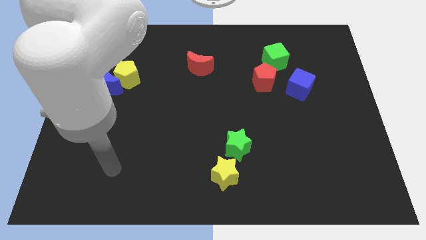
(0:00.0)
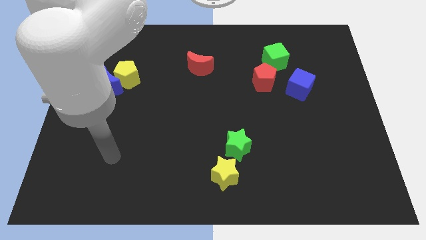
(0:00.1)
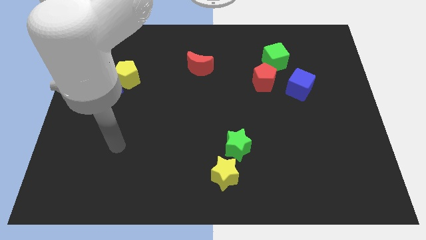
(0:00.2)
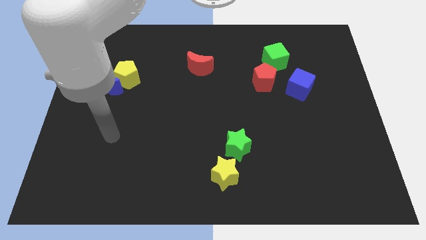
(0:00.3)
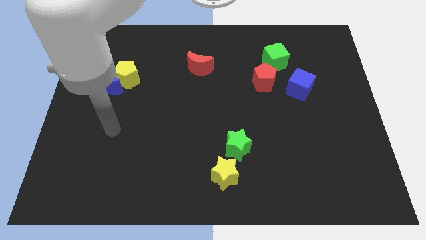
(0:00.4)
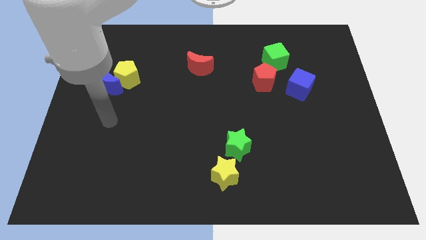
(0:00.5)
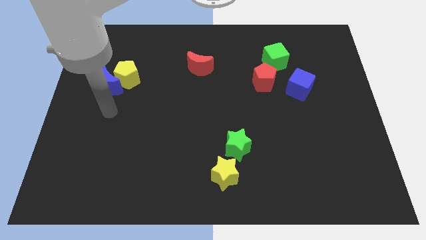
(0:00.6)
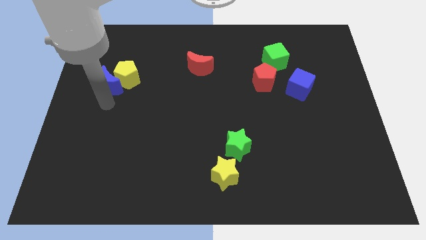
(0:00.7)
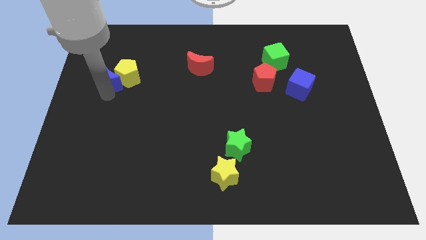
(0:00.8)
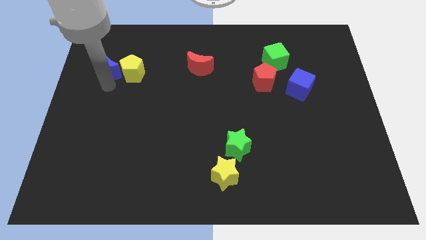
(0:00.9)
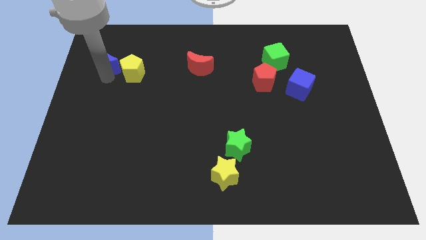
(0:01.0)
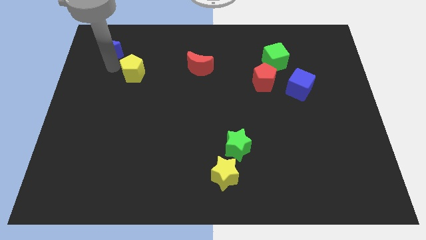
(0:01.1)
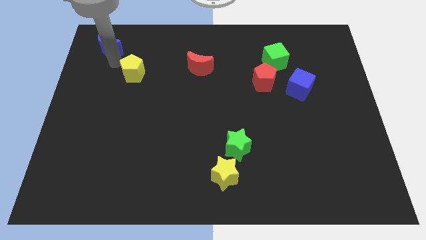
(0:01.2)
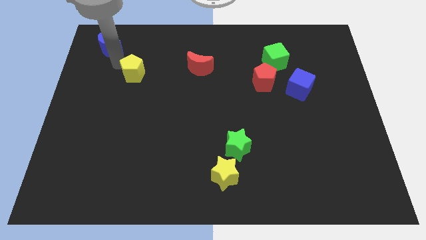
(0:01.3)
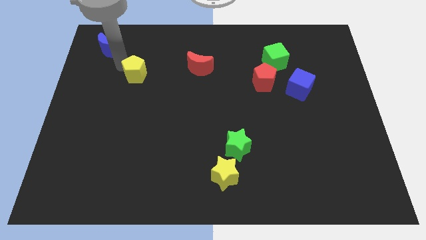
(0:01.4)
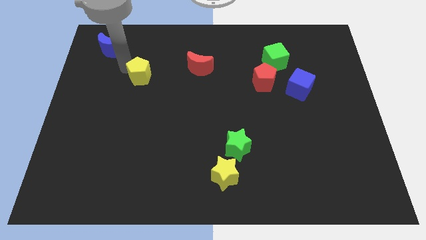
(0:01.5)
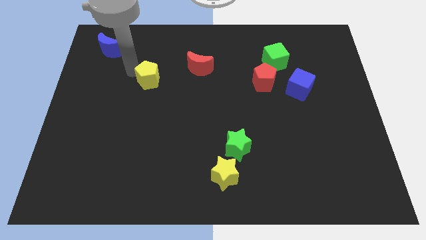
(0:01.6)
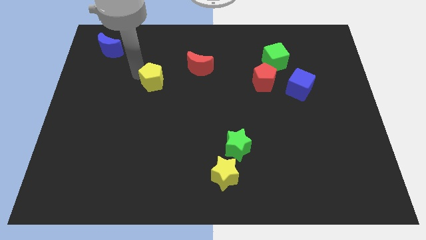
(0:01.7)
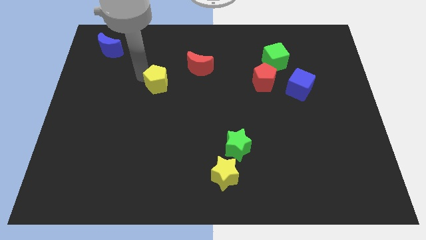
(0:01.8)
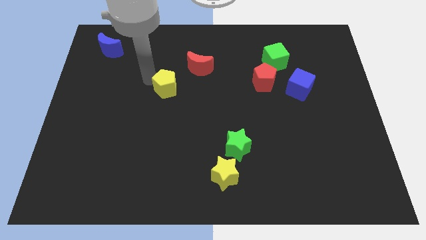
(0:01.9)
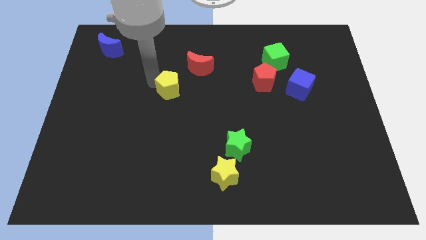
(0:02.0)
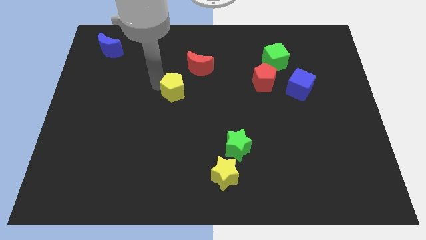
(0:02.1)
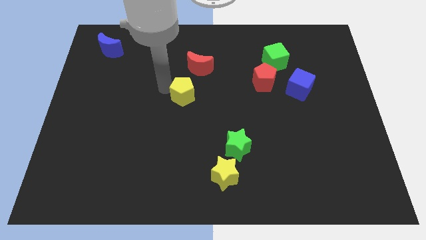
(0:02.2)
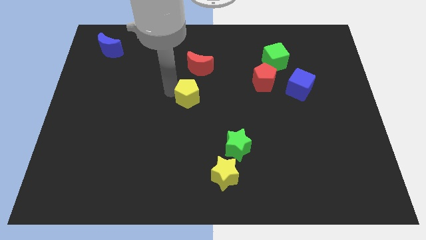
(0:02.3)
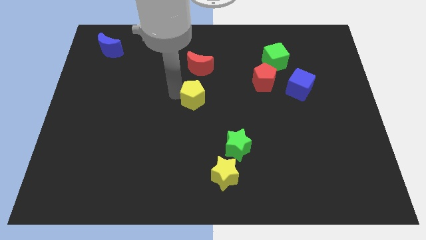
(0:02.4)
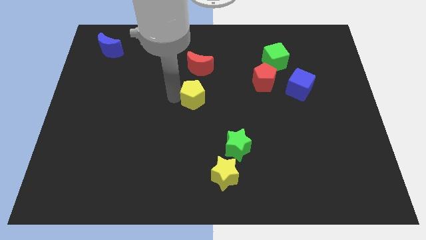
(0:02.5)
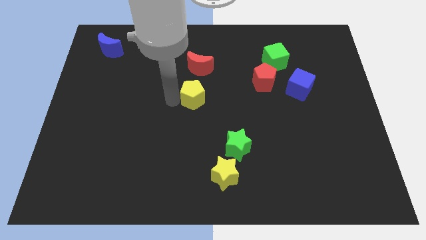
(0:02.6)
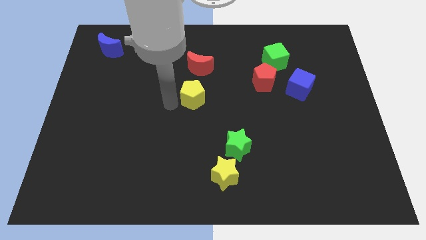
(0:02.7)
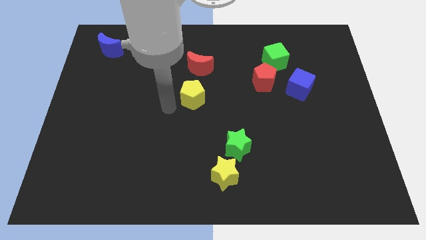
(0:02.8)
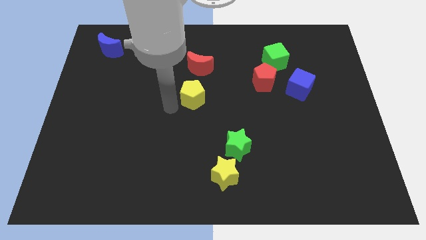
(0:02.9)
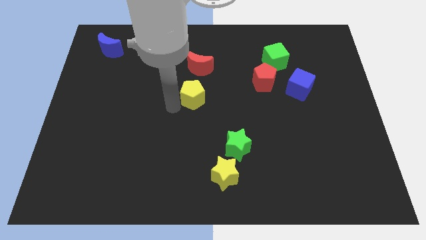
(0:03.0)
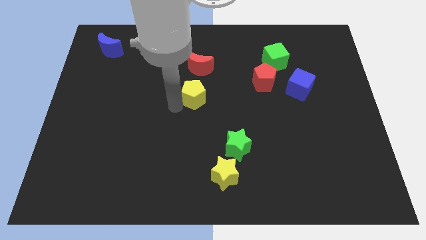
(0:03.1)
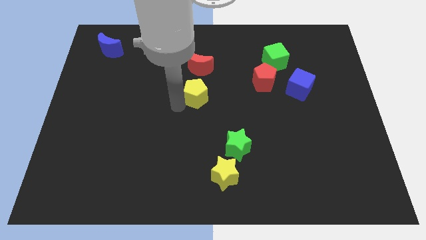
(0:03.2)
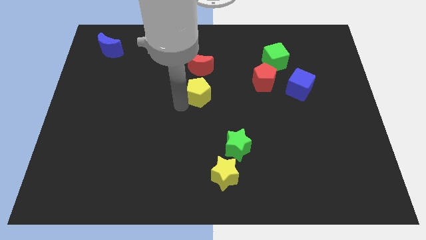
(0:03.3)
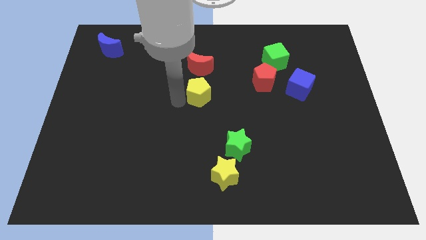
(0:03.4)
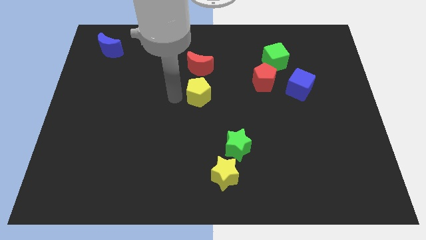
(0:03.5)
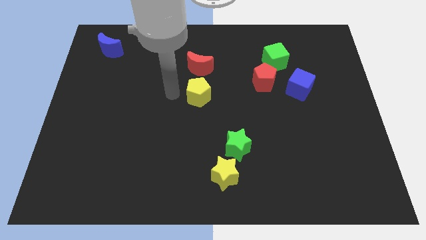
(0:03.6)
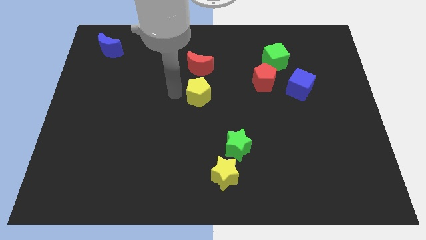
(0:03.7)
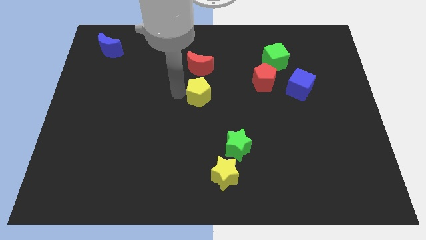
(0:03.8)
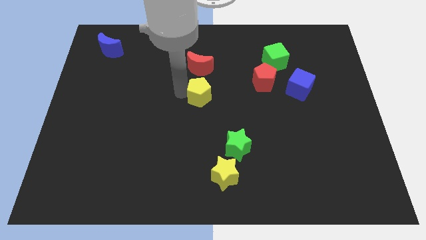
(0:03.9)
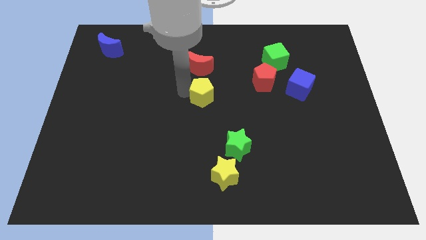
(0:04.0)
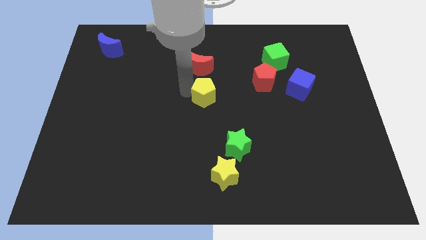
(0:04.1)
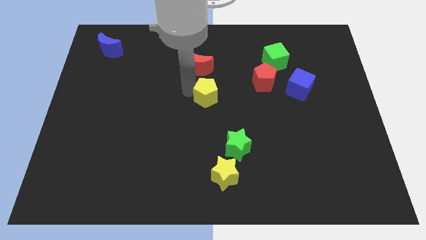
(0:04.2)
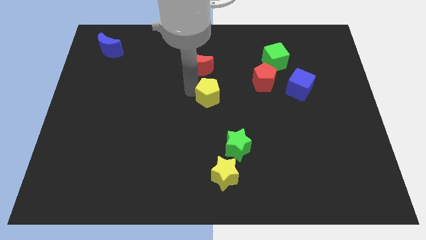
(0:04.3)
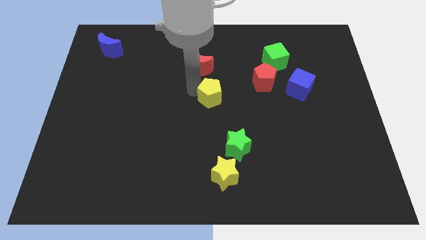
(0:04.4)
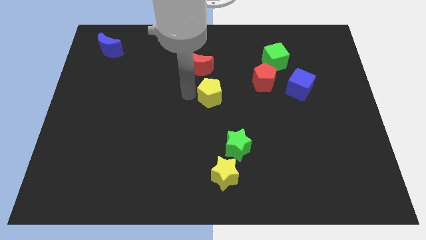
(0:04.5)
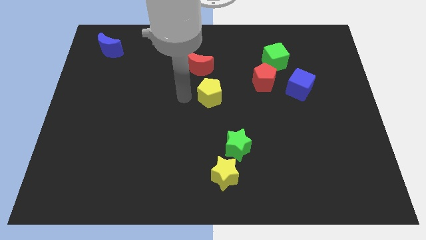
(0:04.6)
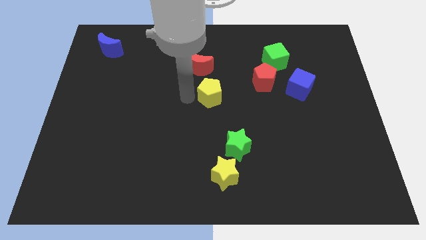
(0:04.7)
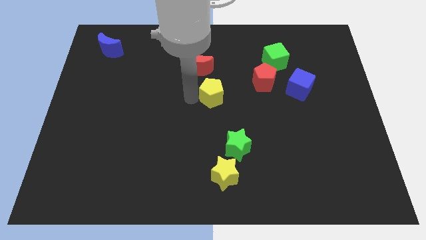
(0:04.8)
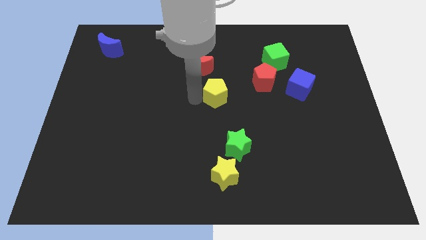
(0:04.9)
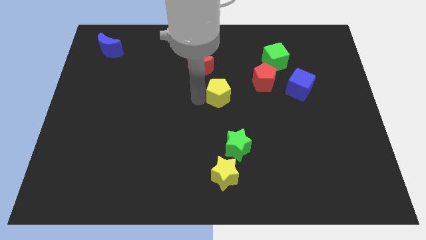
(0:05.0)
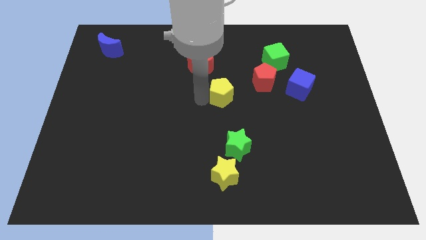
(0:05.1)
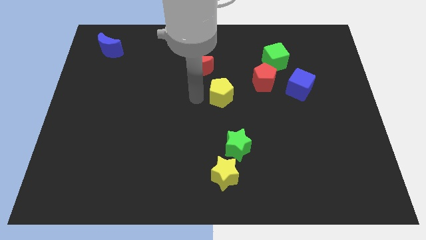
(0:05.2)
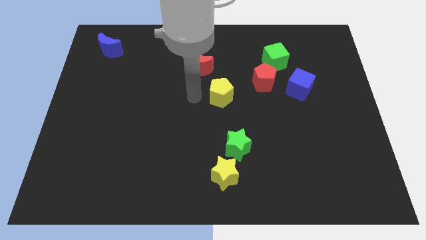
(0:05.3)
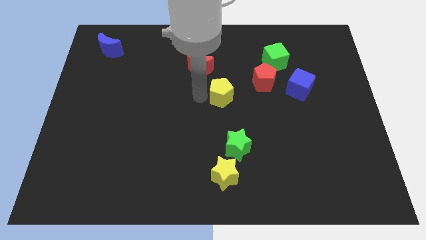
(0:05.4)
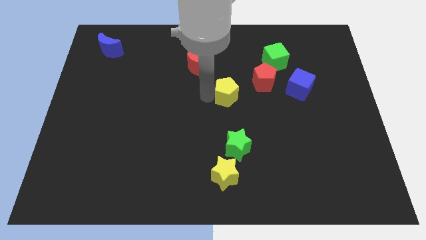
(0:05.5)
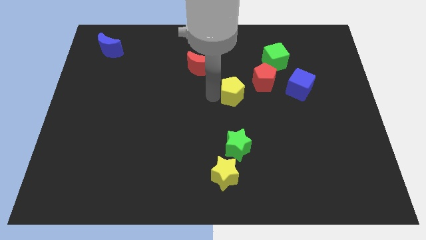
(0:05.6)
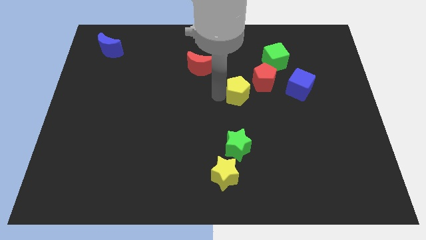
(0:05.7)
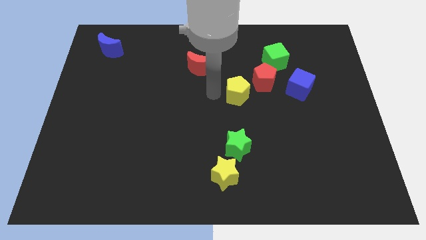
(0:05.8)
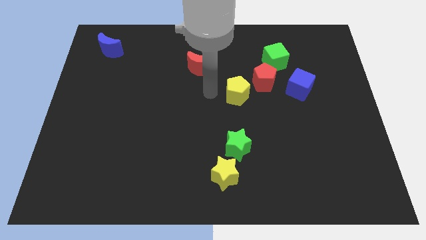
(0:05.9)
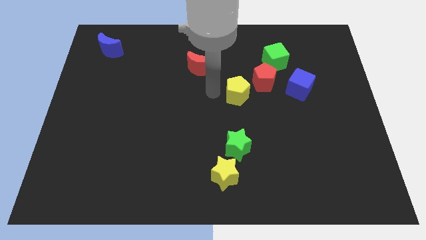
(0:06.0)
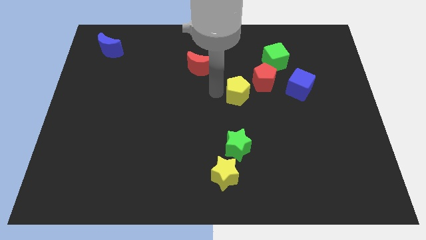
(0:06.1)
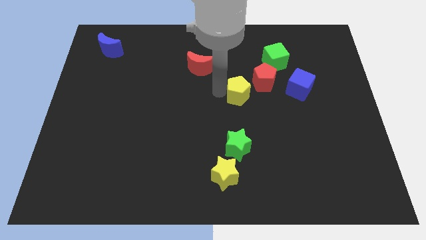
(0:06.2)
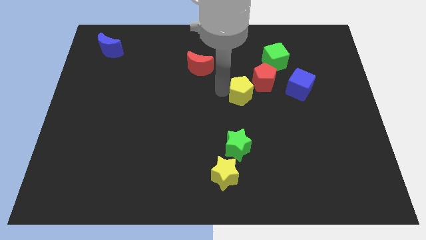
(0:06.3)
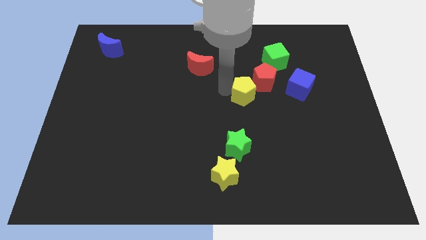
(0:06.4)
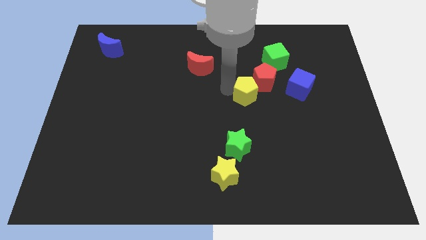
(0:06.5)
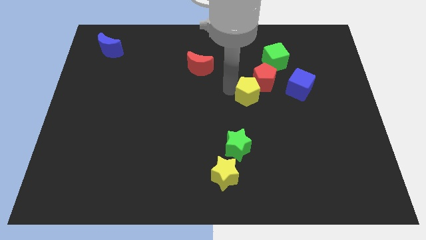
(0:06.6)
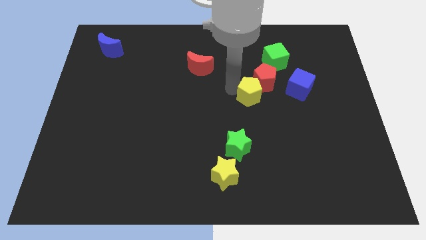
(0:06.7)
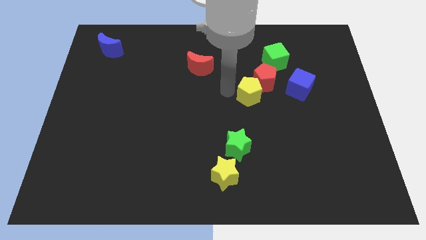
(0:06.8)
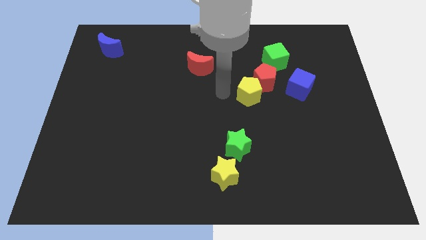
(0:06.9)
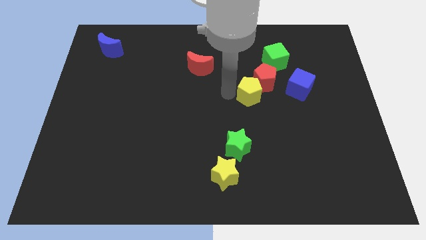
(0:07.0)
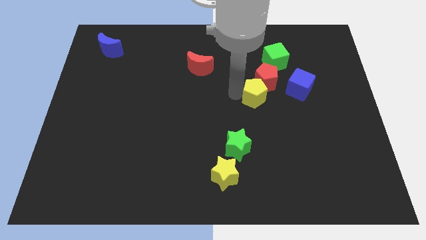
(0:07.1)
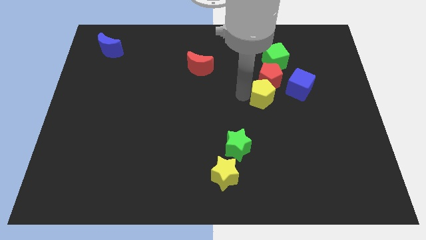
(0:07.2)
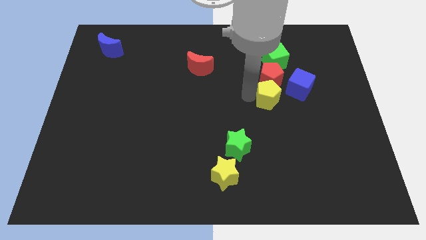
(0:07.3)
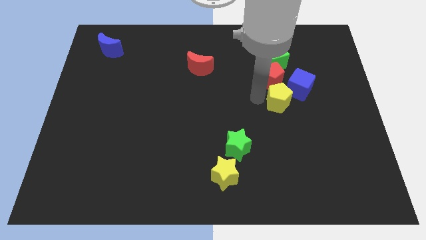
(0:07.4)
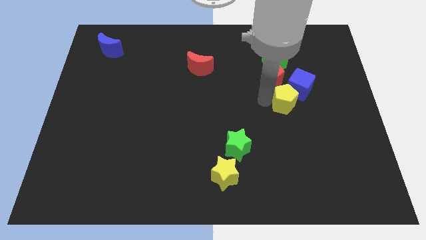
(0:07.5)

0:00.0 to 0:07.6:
put the yellow pentagon towards the blue cube
